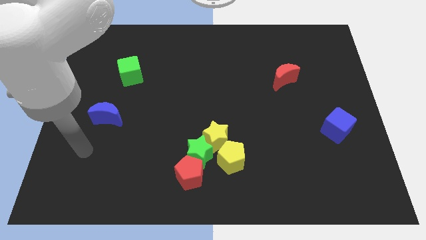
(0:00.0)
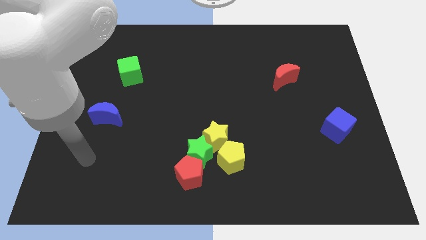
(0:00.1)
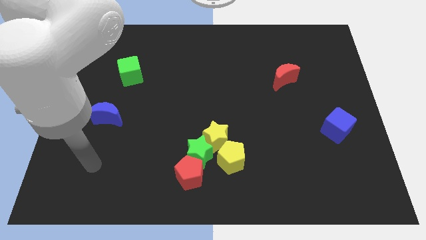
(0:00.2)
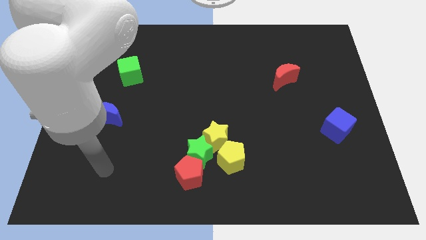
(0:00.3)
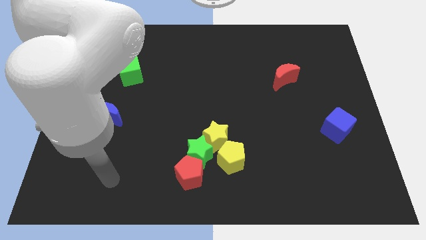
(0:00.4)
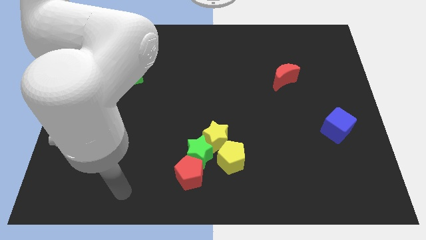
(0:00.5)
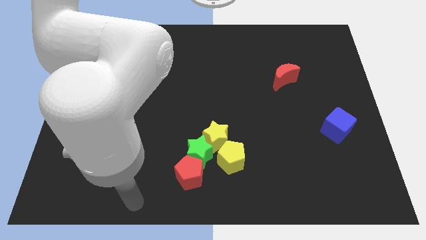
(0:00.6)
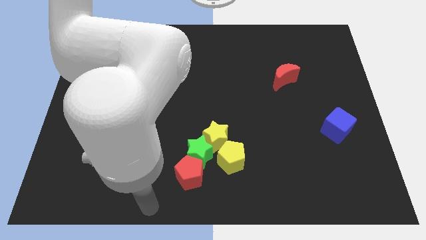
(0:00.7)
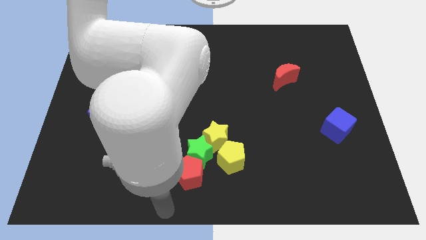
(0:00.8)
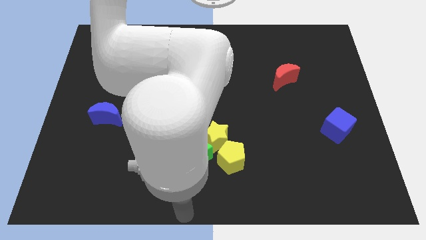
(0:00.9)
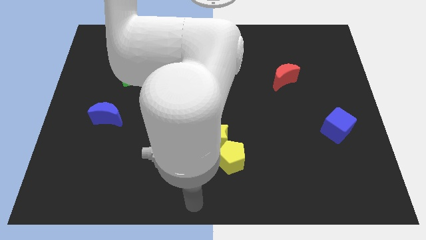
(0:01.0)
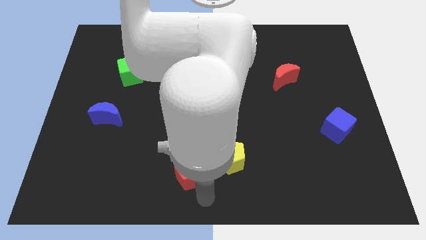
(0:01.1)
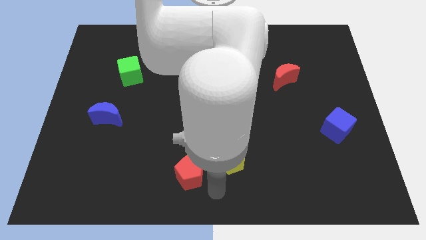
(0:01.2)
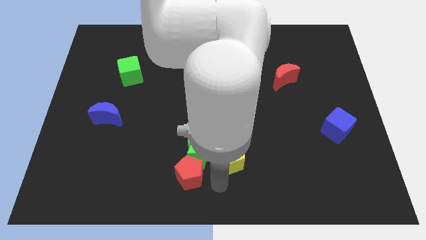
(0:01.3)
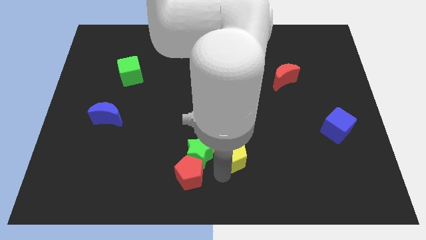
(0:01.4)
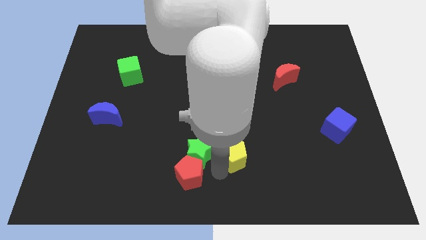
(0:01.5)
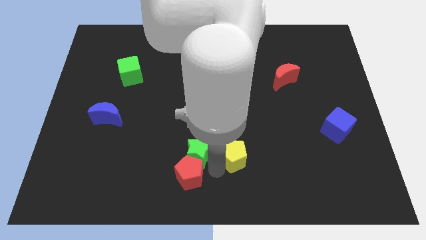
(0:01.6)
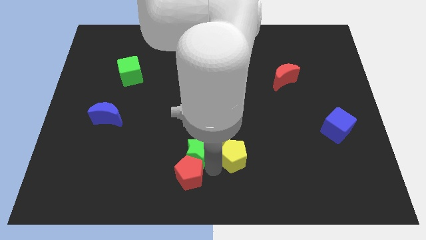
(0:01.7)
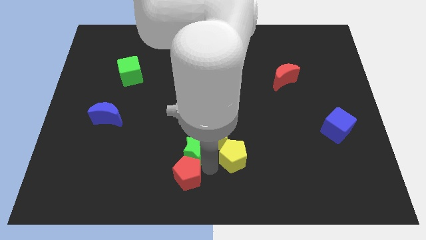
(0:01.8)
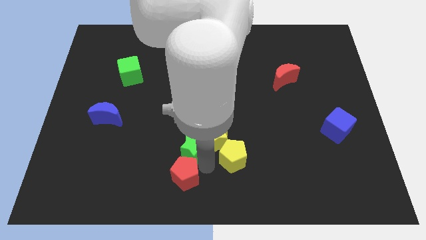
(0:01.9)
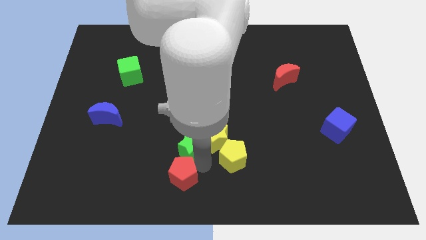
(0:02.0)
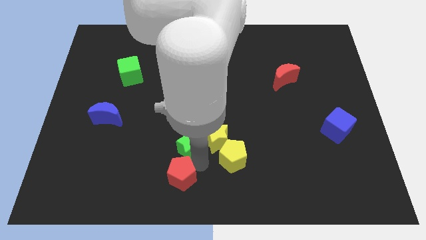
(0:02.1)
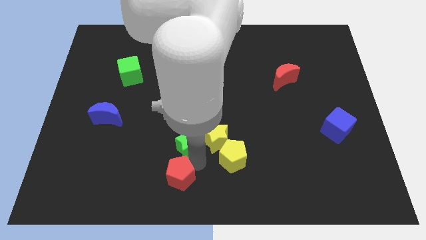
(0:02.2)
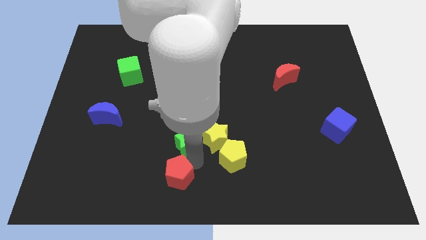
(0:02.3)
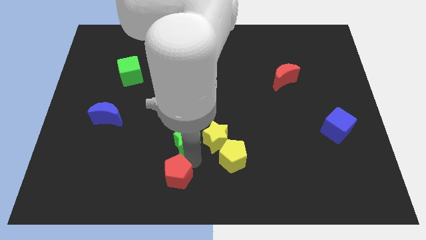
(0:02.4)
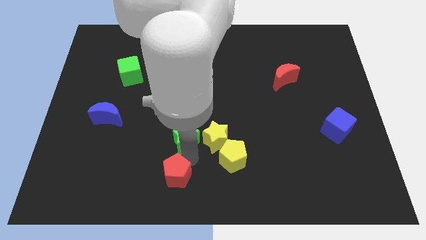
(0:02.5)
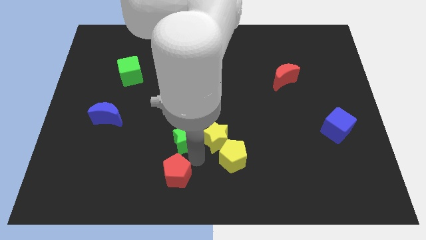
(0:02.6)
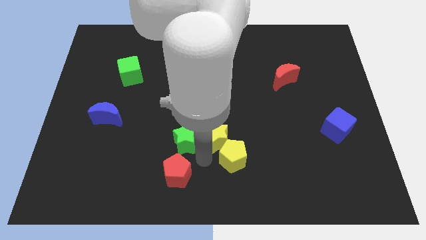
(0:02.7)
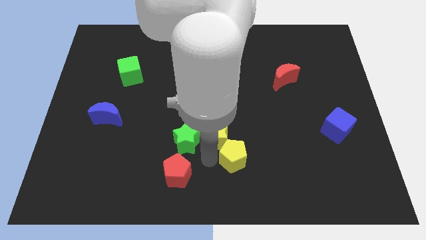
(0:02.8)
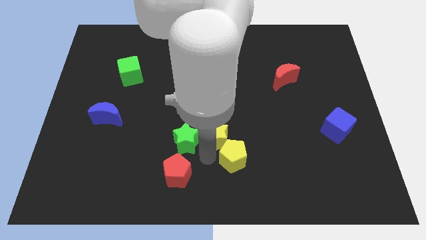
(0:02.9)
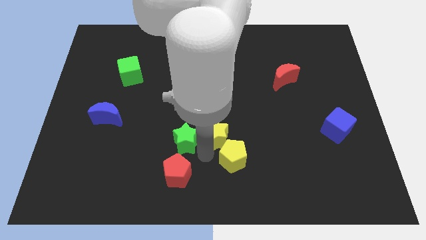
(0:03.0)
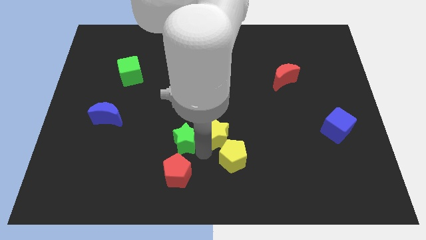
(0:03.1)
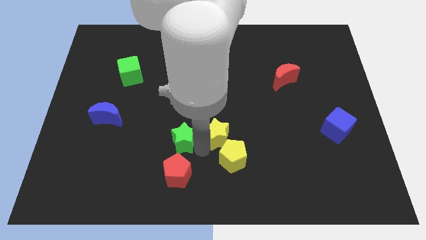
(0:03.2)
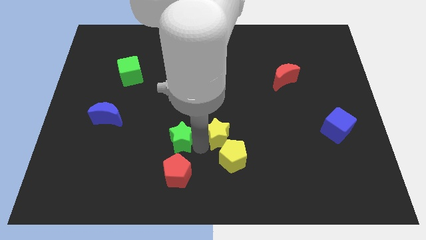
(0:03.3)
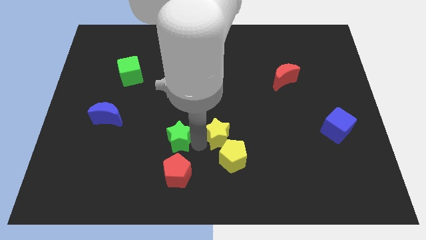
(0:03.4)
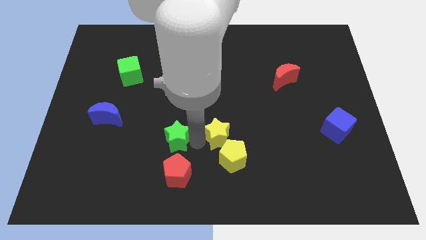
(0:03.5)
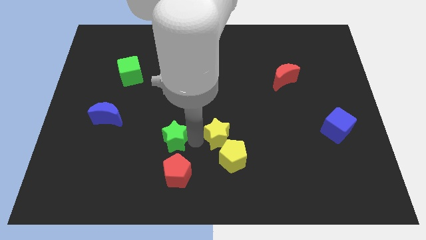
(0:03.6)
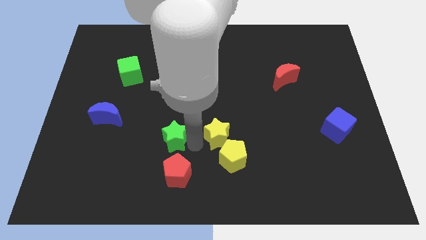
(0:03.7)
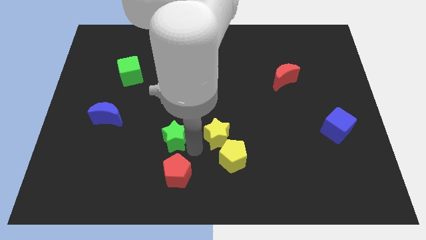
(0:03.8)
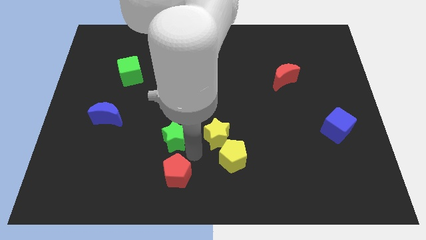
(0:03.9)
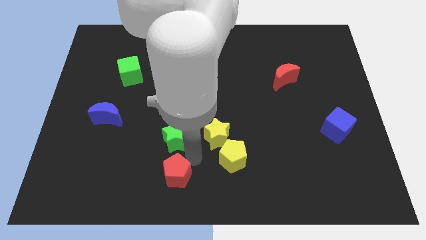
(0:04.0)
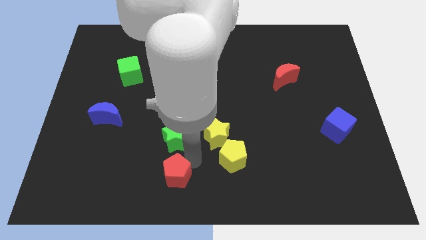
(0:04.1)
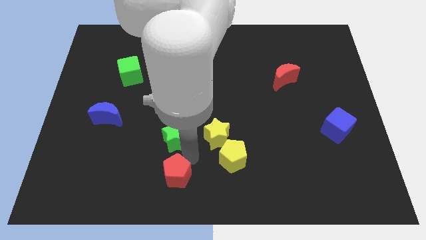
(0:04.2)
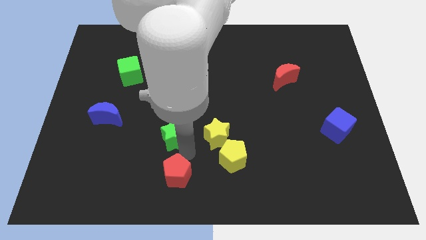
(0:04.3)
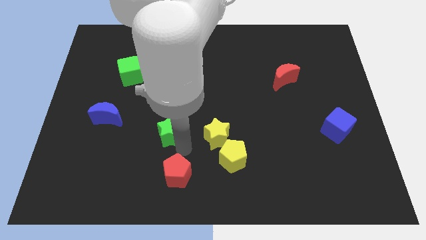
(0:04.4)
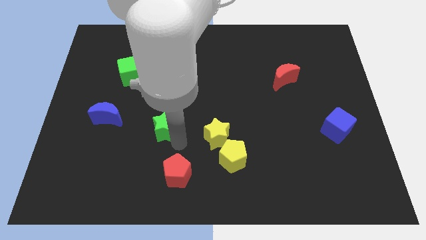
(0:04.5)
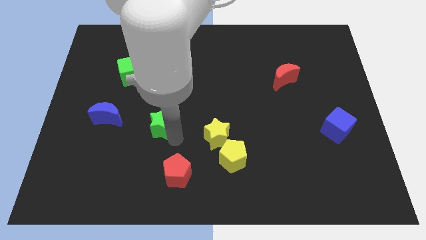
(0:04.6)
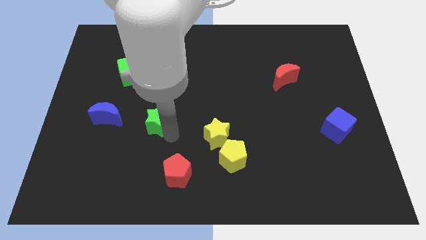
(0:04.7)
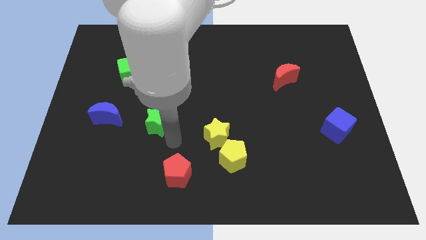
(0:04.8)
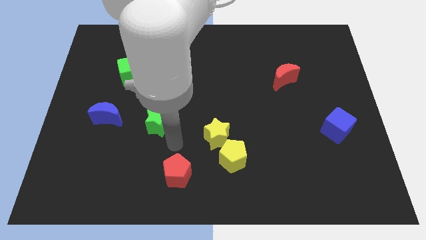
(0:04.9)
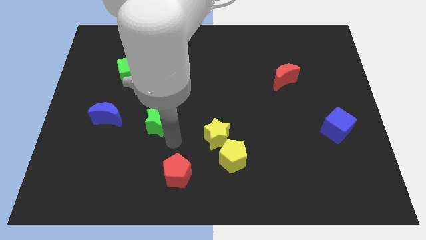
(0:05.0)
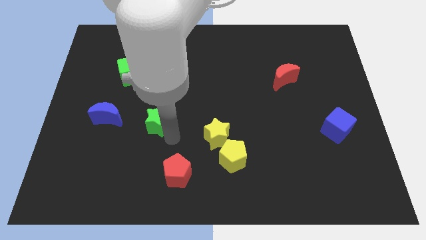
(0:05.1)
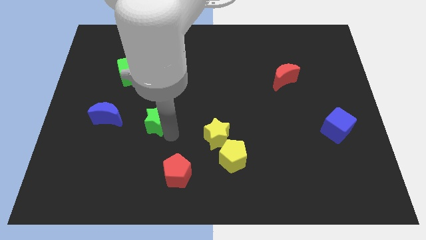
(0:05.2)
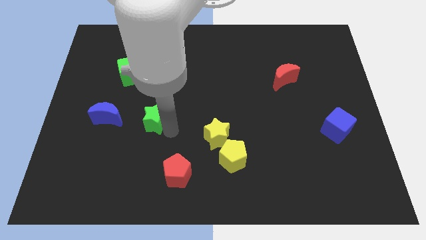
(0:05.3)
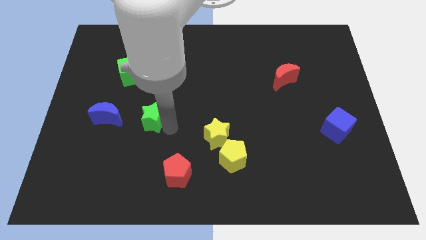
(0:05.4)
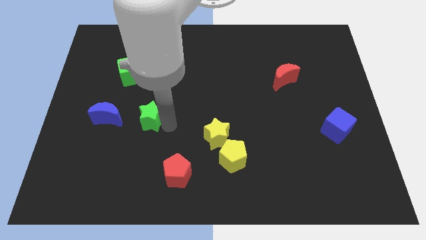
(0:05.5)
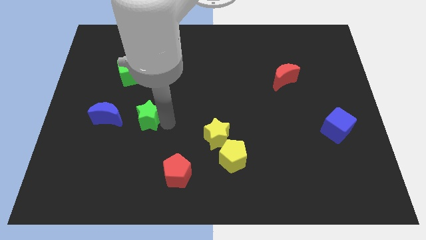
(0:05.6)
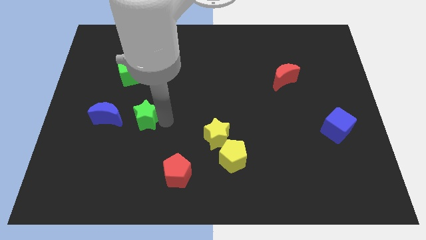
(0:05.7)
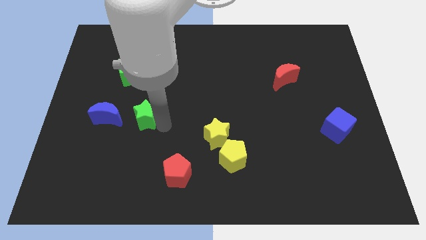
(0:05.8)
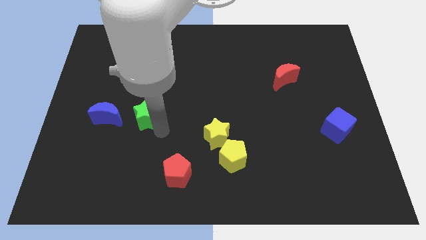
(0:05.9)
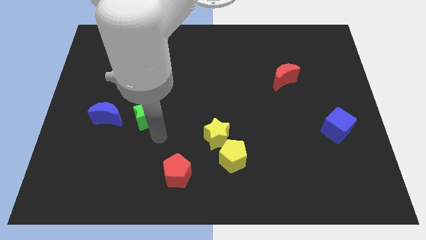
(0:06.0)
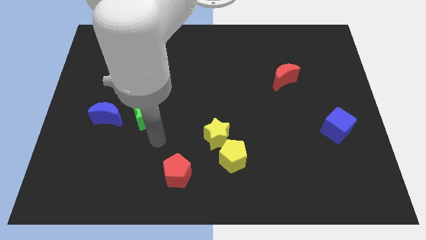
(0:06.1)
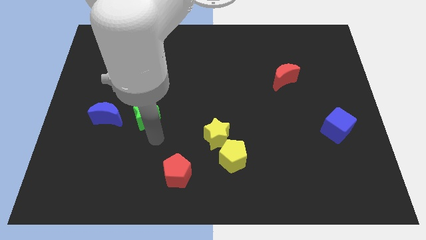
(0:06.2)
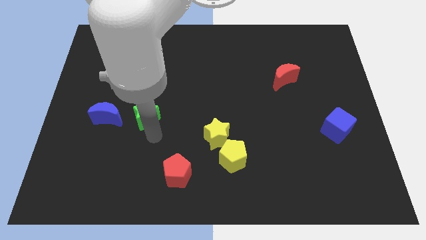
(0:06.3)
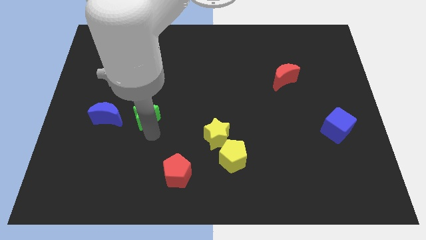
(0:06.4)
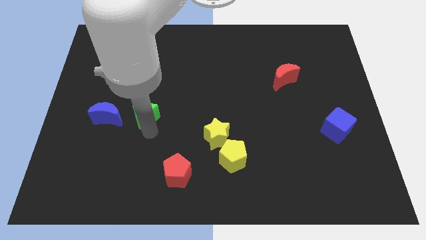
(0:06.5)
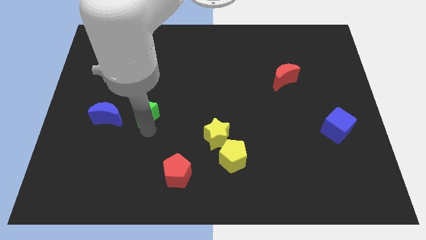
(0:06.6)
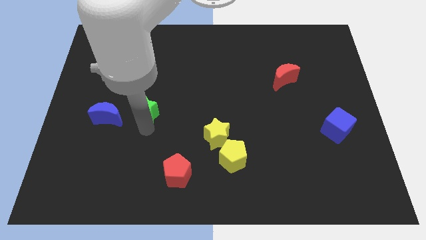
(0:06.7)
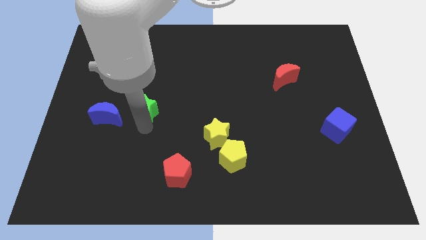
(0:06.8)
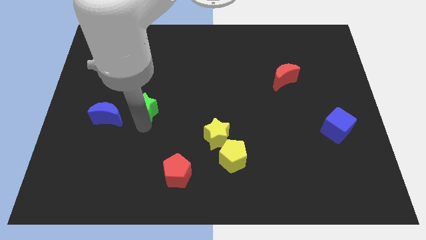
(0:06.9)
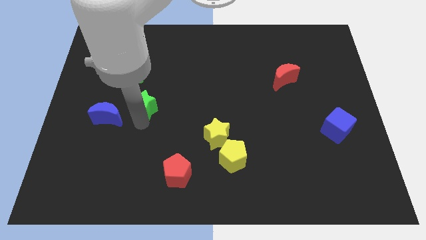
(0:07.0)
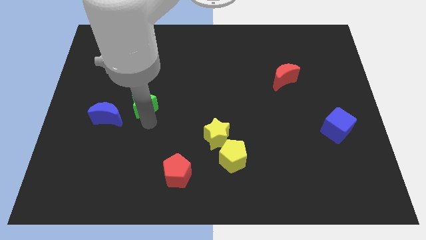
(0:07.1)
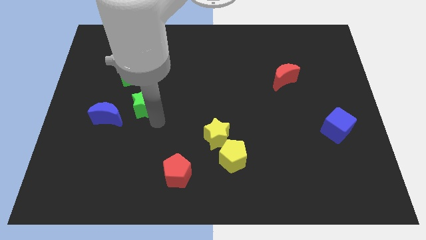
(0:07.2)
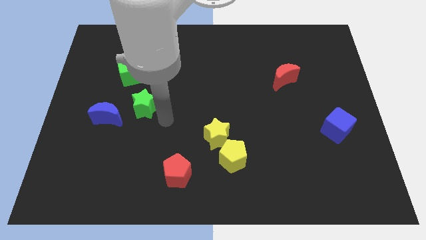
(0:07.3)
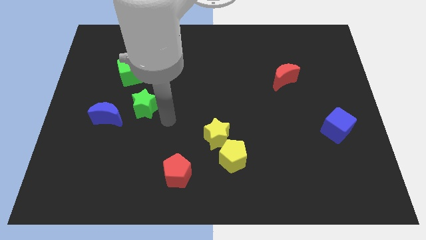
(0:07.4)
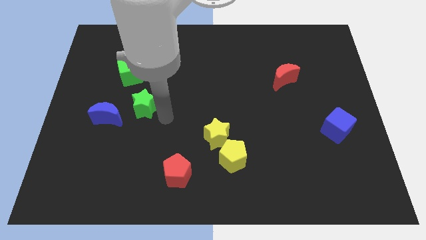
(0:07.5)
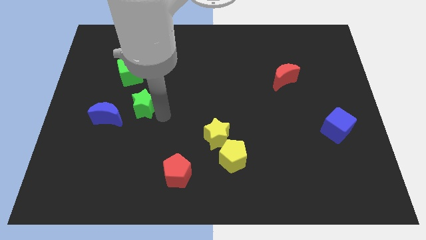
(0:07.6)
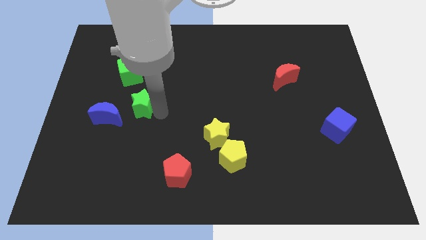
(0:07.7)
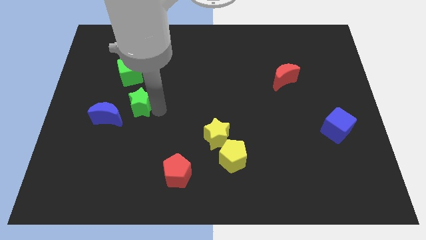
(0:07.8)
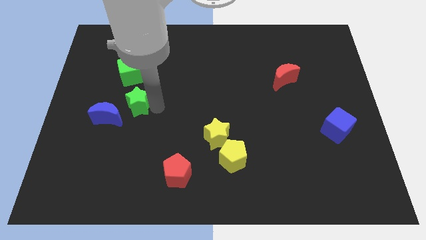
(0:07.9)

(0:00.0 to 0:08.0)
push the green star diagonally up and to the left
